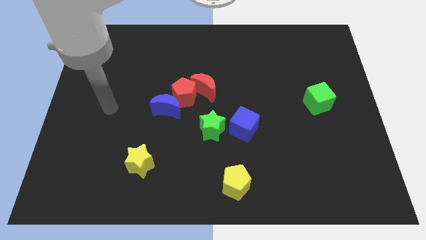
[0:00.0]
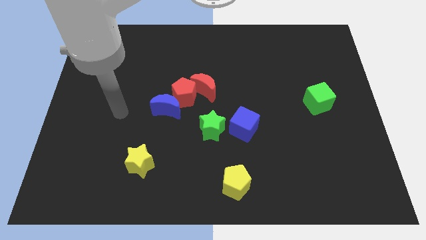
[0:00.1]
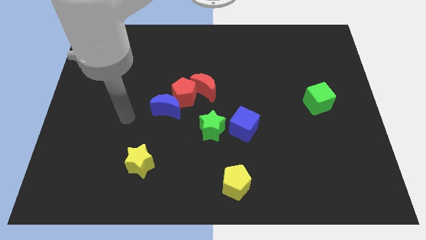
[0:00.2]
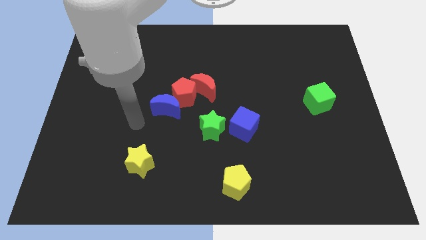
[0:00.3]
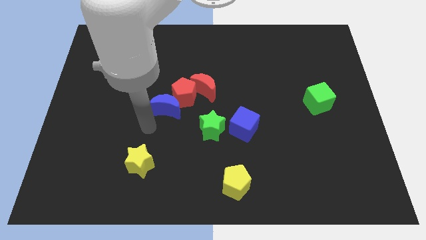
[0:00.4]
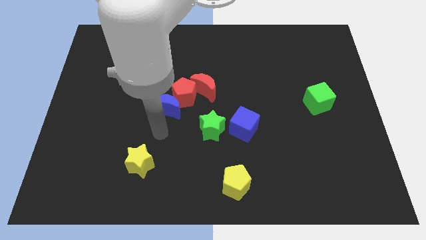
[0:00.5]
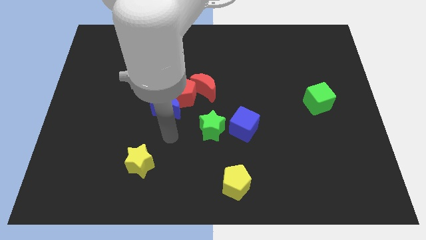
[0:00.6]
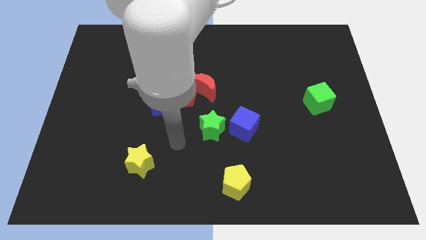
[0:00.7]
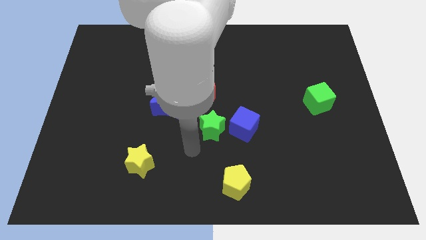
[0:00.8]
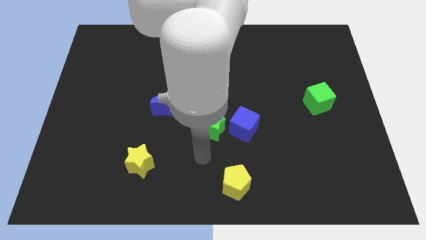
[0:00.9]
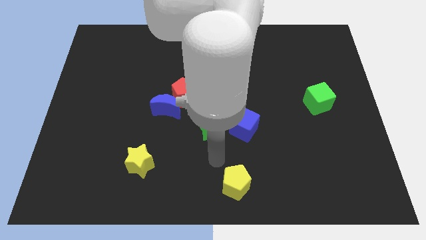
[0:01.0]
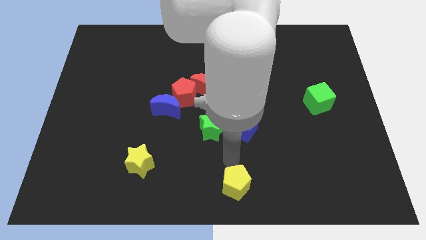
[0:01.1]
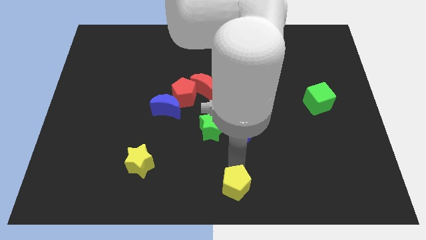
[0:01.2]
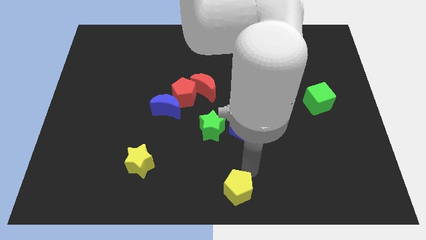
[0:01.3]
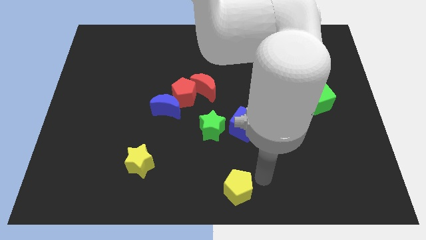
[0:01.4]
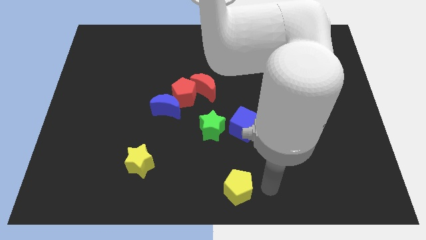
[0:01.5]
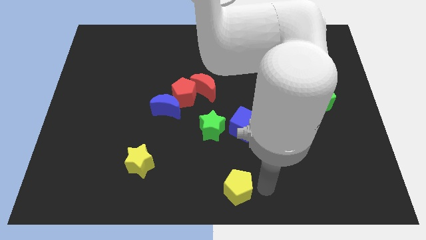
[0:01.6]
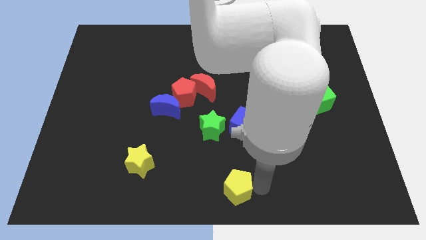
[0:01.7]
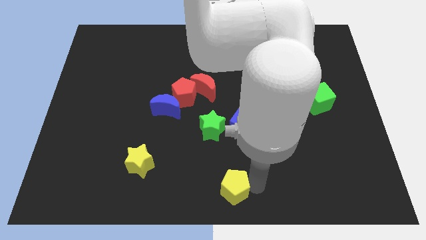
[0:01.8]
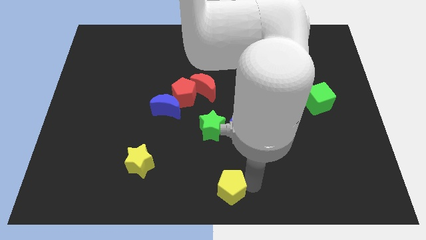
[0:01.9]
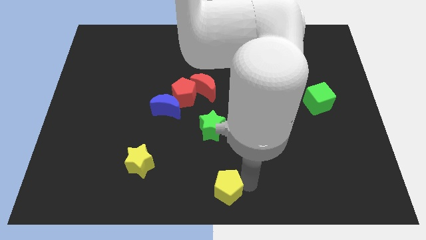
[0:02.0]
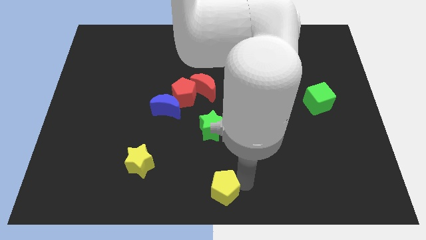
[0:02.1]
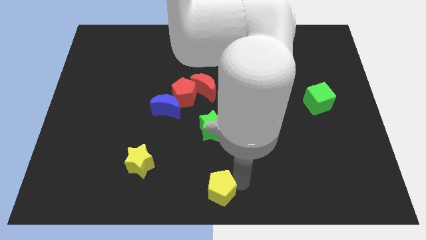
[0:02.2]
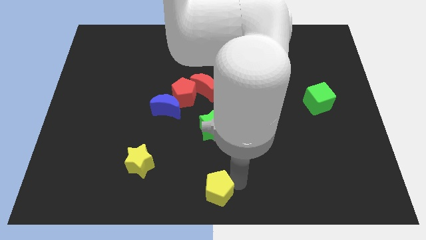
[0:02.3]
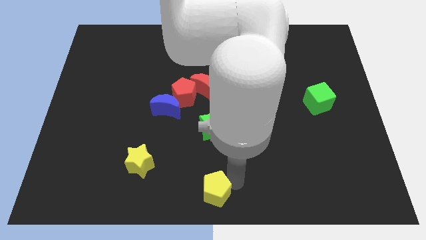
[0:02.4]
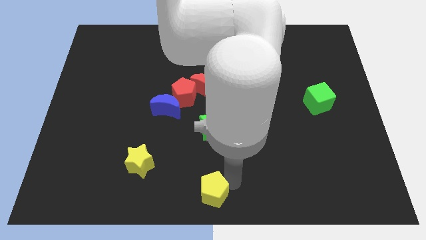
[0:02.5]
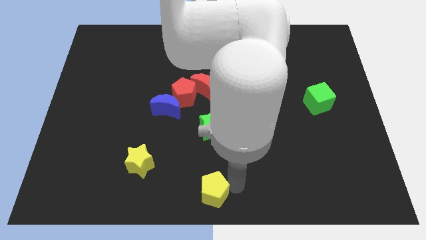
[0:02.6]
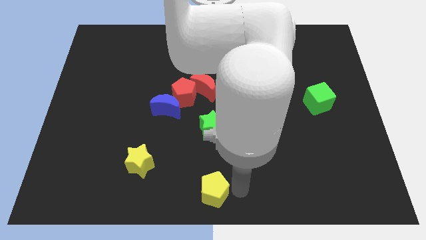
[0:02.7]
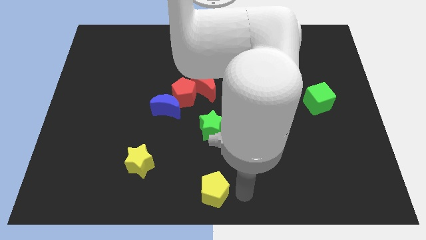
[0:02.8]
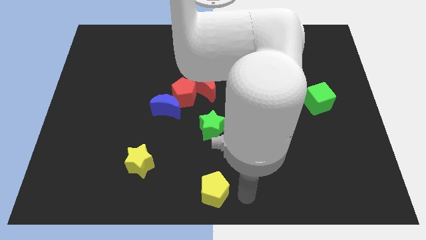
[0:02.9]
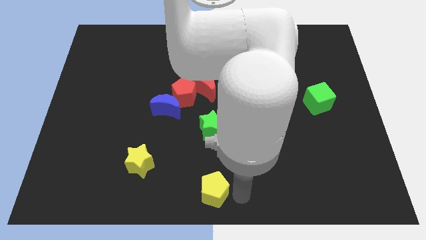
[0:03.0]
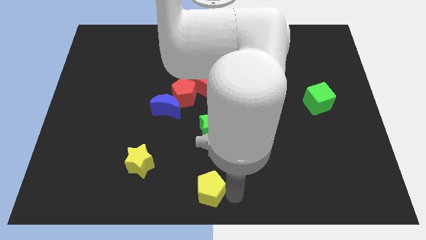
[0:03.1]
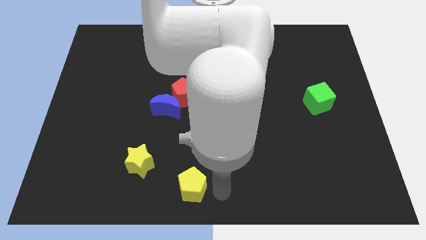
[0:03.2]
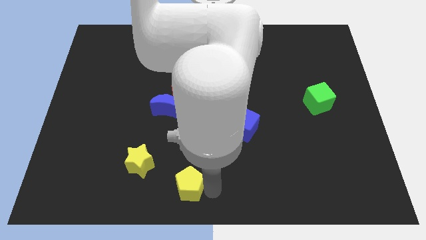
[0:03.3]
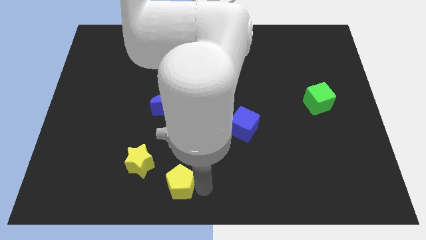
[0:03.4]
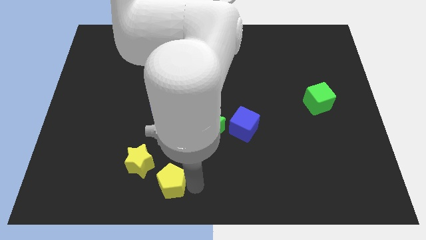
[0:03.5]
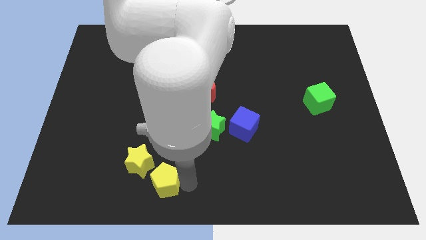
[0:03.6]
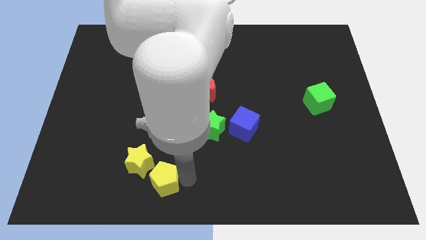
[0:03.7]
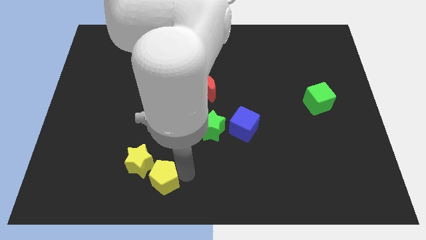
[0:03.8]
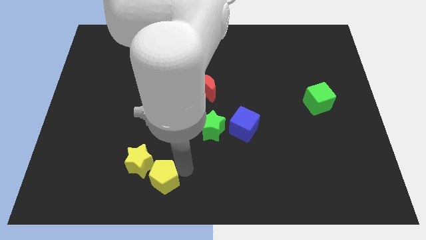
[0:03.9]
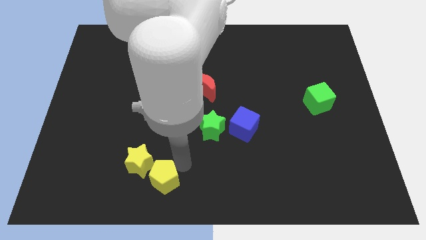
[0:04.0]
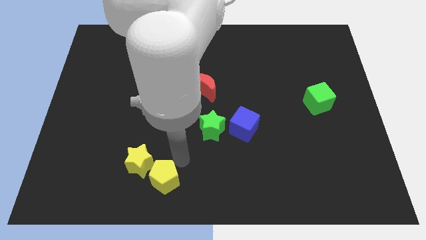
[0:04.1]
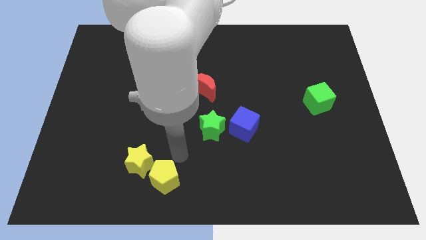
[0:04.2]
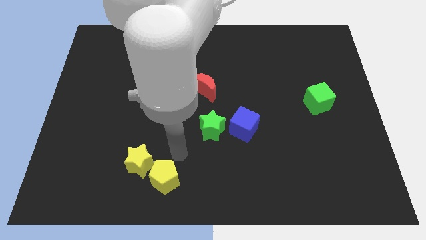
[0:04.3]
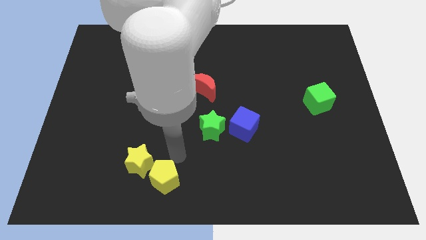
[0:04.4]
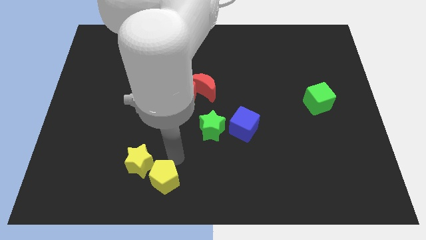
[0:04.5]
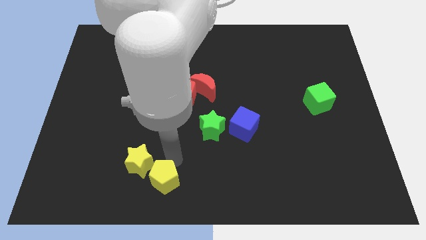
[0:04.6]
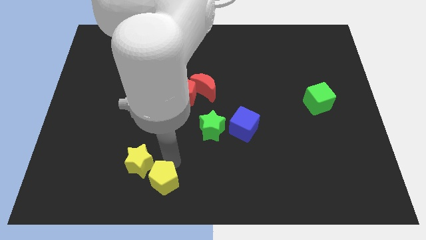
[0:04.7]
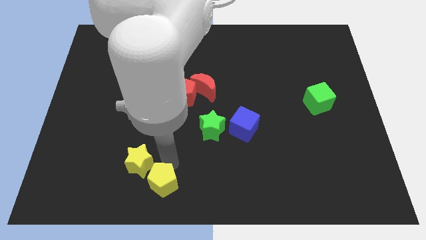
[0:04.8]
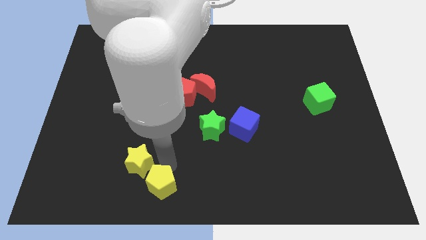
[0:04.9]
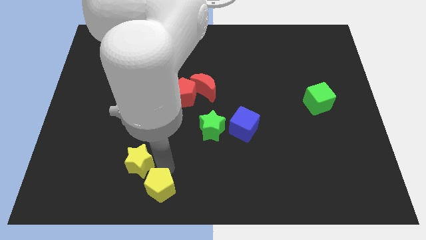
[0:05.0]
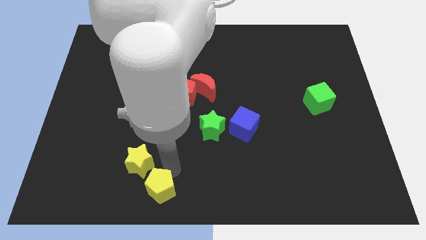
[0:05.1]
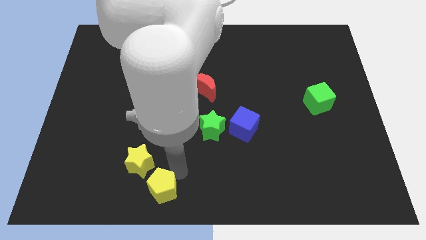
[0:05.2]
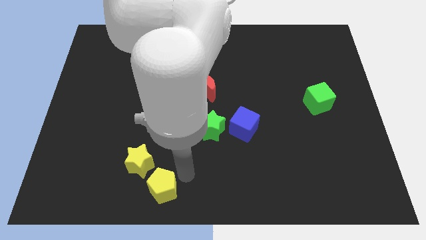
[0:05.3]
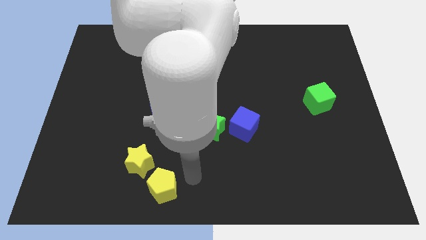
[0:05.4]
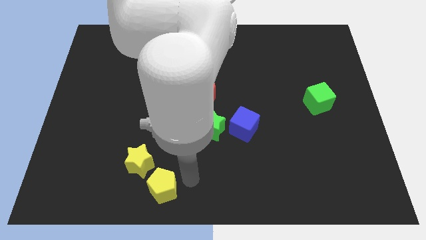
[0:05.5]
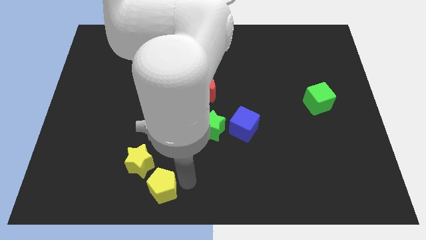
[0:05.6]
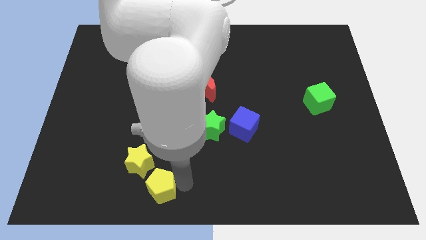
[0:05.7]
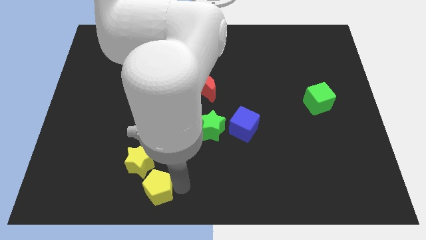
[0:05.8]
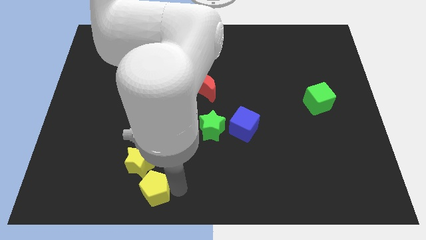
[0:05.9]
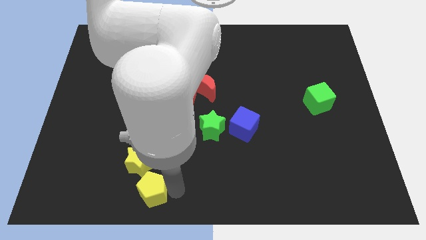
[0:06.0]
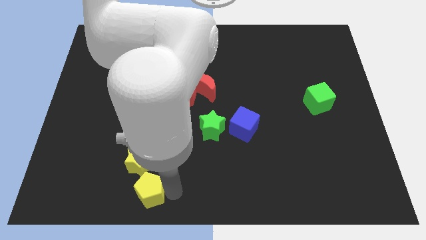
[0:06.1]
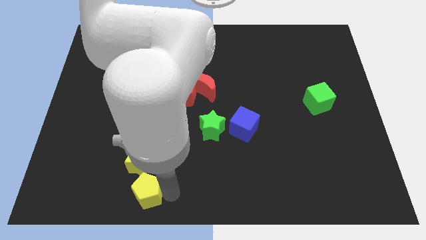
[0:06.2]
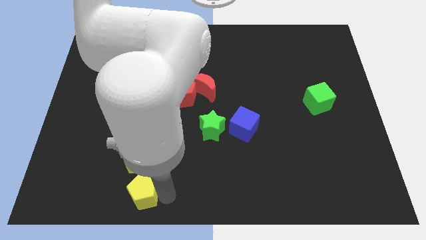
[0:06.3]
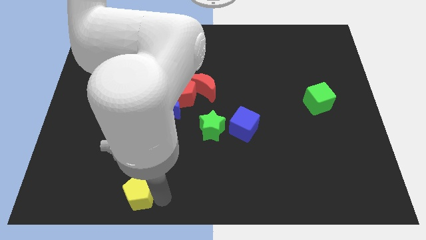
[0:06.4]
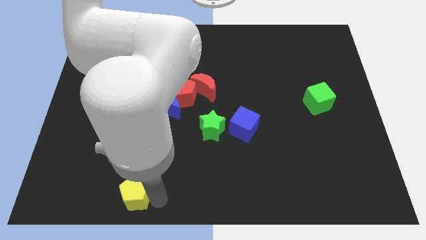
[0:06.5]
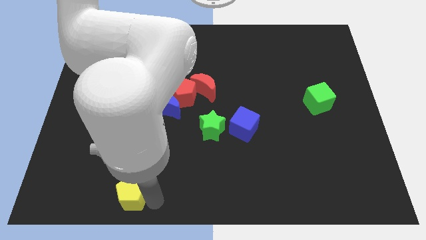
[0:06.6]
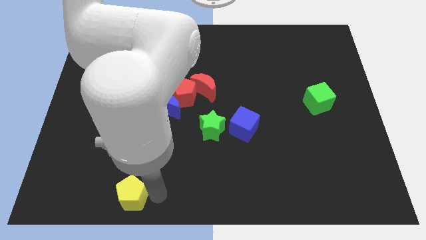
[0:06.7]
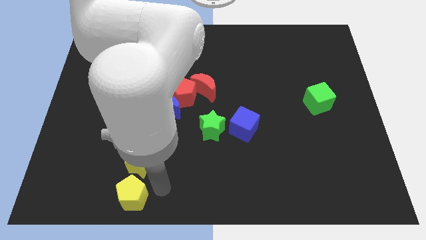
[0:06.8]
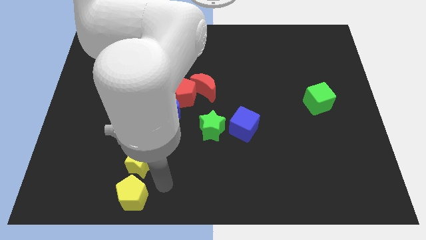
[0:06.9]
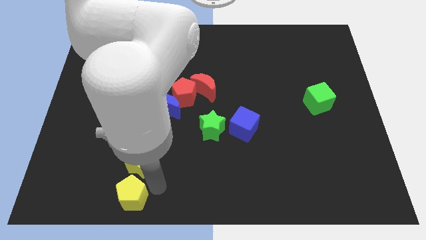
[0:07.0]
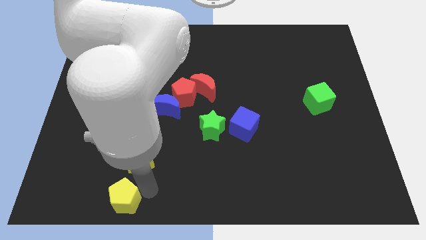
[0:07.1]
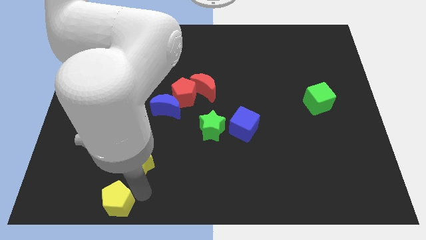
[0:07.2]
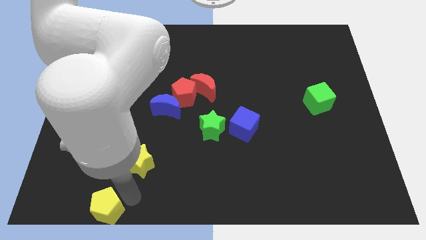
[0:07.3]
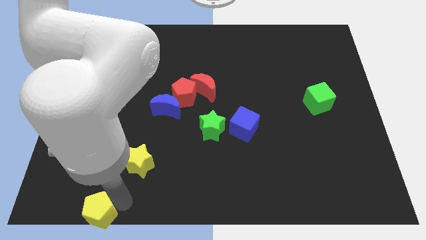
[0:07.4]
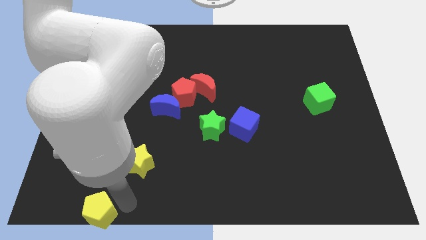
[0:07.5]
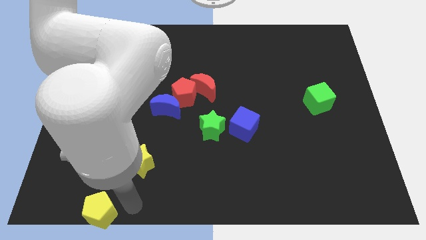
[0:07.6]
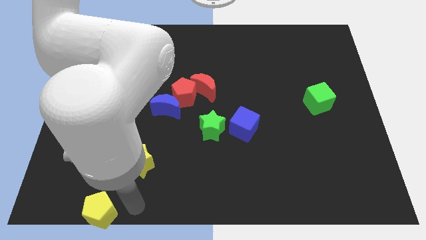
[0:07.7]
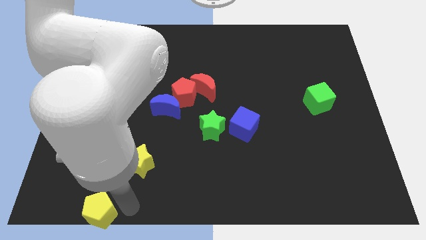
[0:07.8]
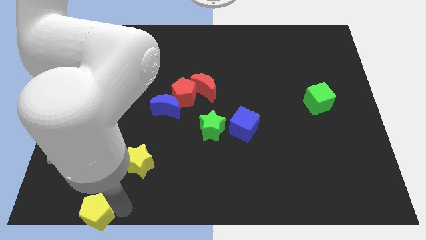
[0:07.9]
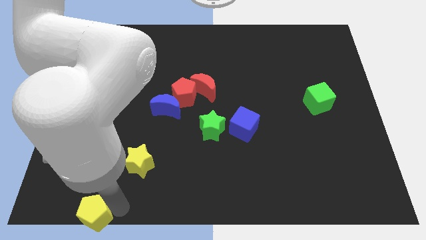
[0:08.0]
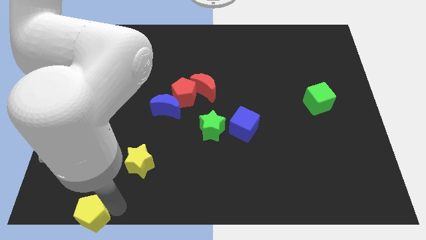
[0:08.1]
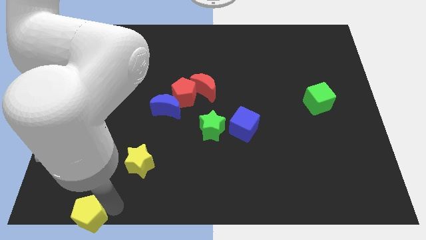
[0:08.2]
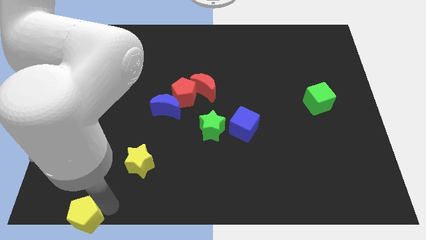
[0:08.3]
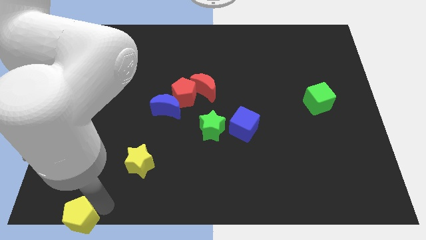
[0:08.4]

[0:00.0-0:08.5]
slide the yellow pentagon to the lower left corner
